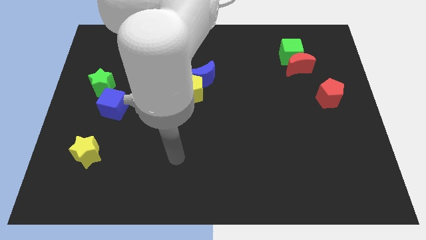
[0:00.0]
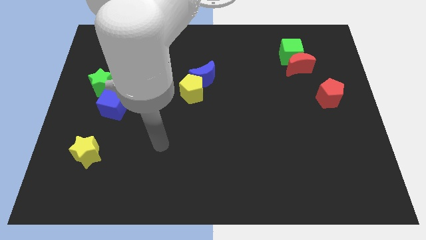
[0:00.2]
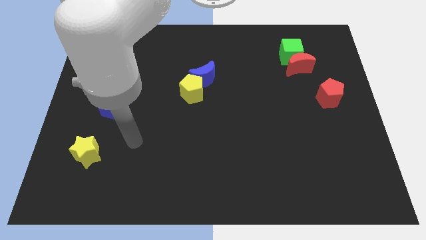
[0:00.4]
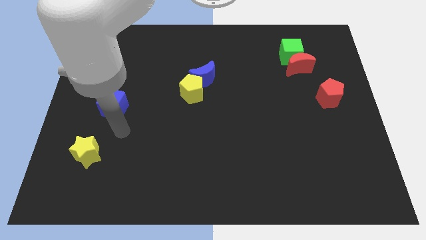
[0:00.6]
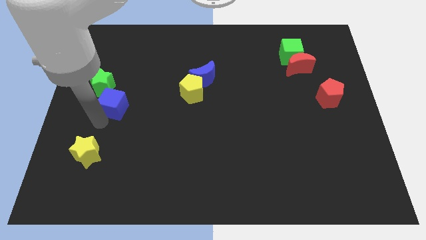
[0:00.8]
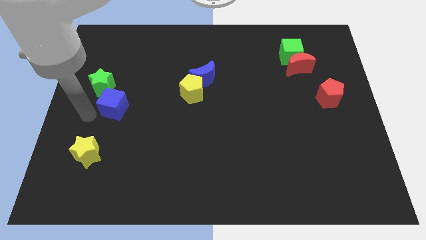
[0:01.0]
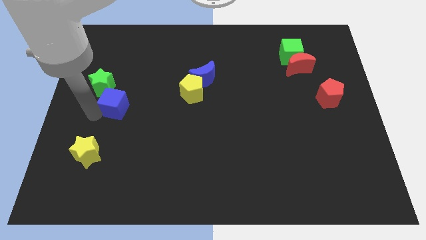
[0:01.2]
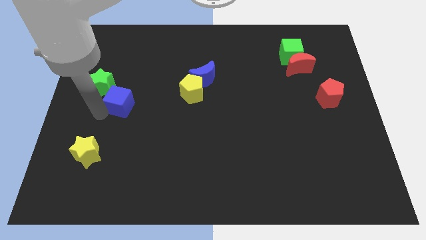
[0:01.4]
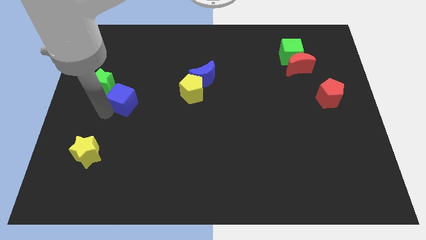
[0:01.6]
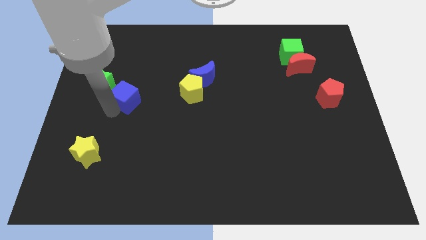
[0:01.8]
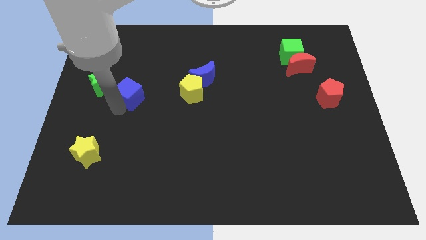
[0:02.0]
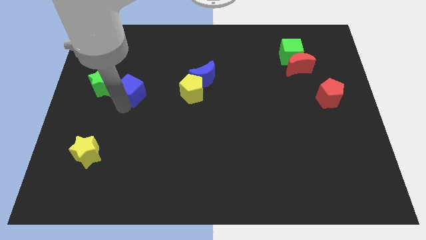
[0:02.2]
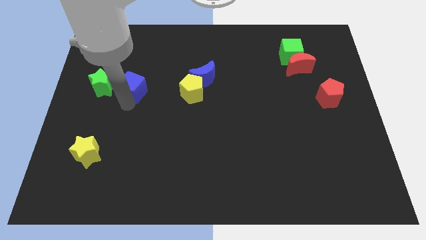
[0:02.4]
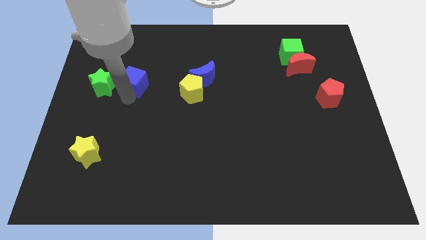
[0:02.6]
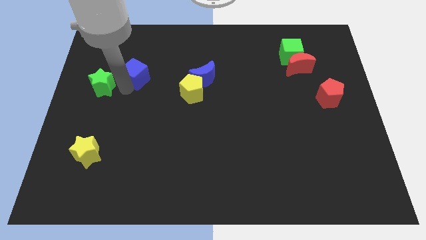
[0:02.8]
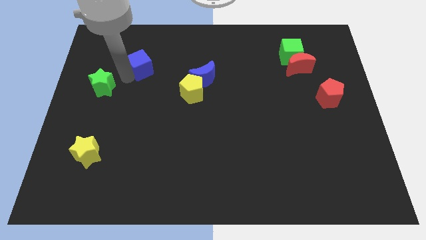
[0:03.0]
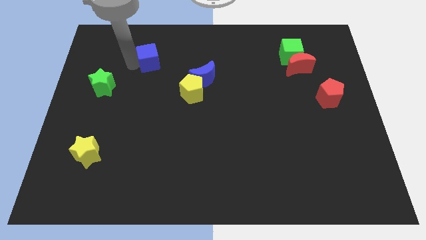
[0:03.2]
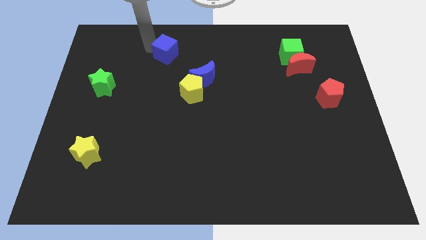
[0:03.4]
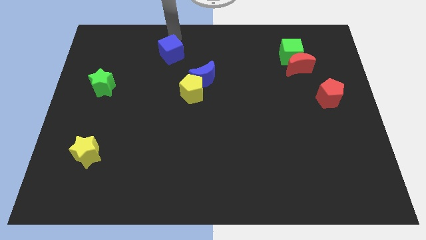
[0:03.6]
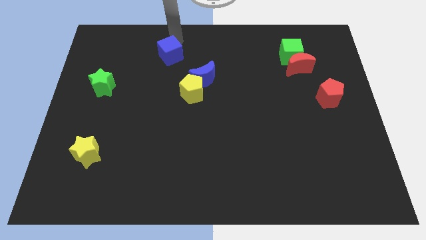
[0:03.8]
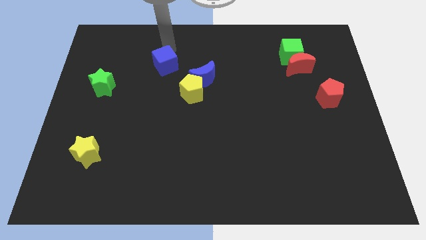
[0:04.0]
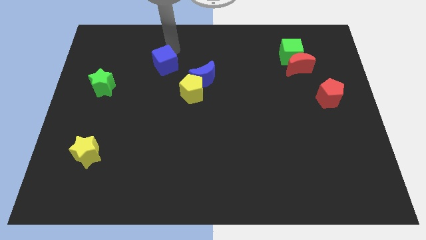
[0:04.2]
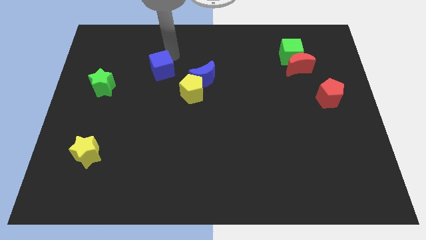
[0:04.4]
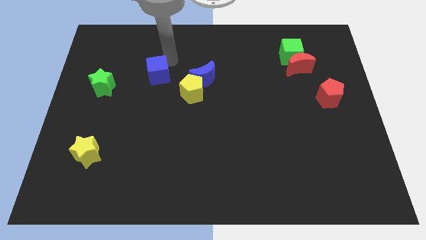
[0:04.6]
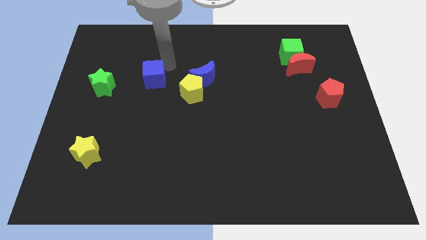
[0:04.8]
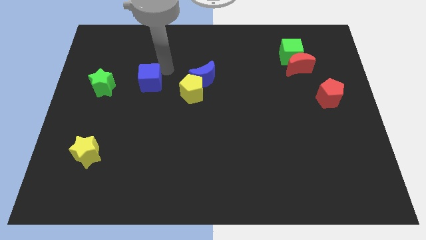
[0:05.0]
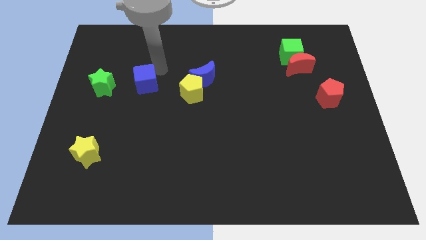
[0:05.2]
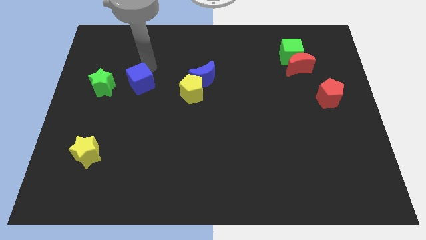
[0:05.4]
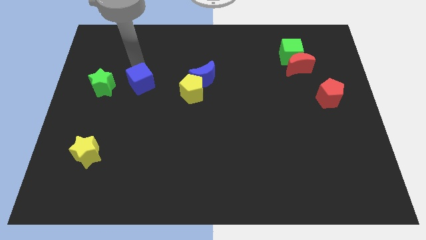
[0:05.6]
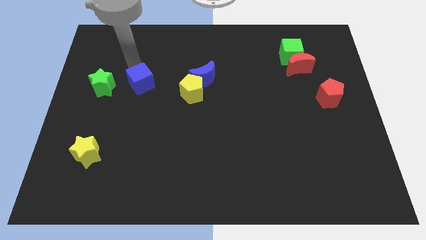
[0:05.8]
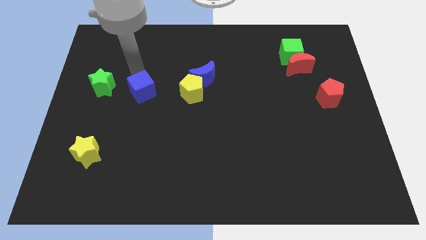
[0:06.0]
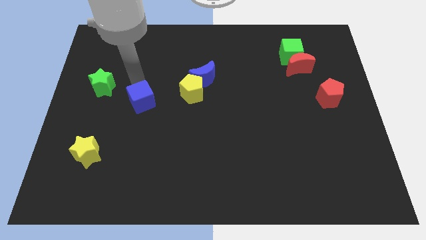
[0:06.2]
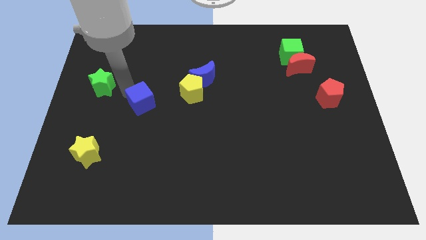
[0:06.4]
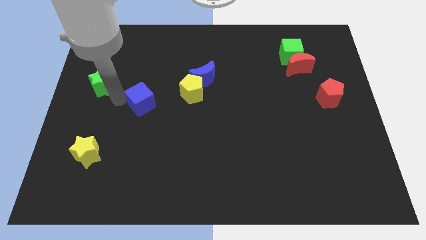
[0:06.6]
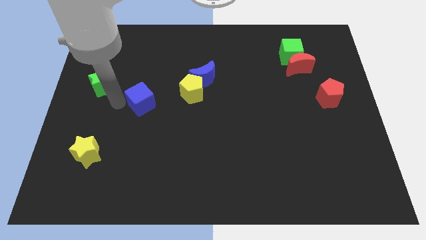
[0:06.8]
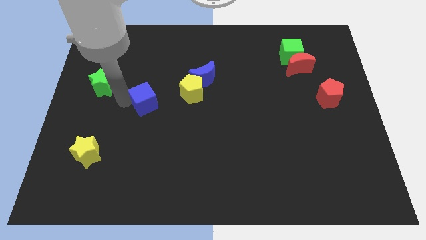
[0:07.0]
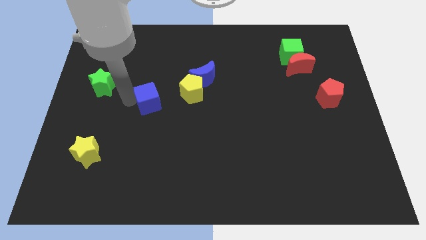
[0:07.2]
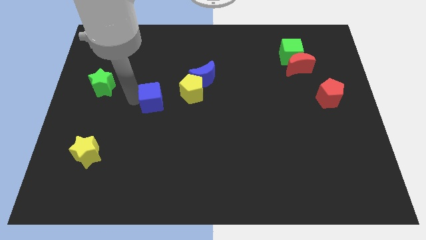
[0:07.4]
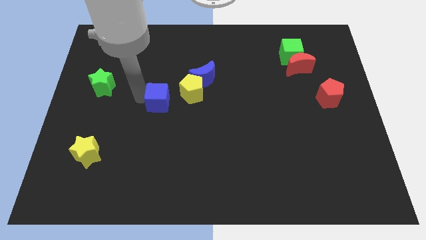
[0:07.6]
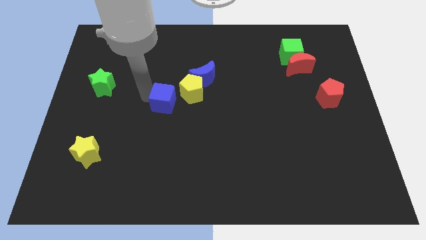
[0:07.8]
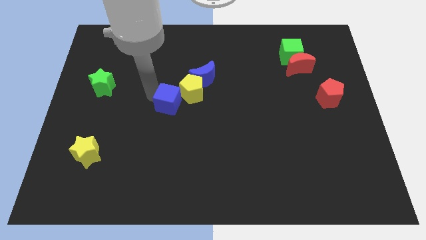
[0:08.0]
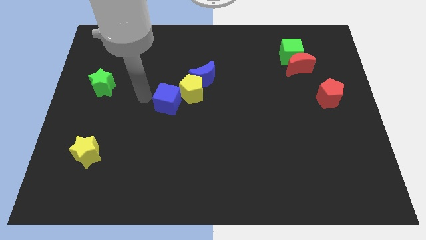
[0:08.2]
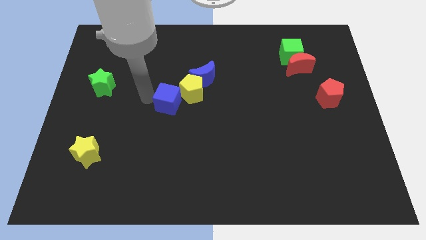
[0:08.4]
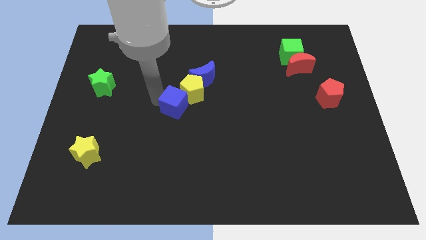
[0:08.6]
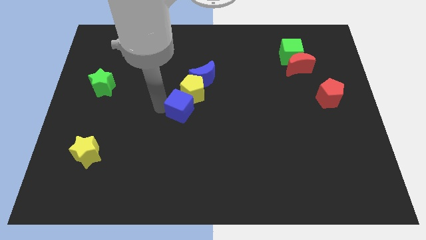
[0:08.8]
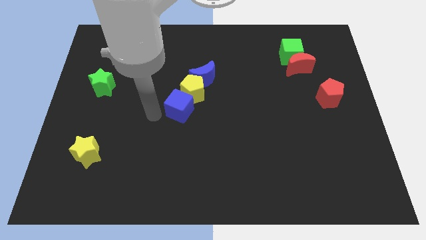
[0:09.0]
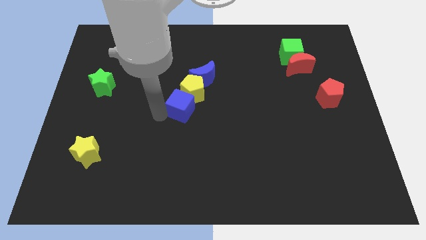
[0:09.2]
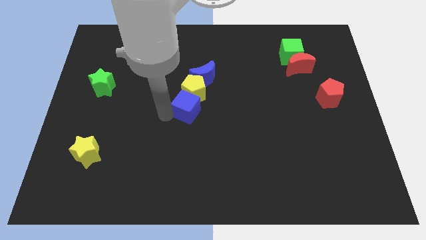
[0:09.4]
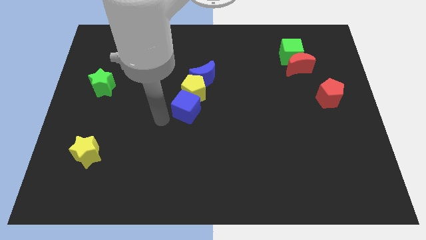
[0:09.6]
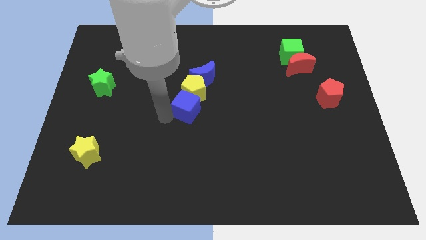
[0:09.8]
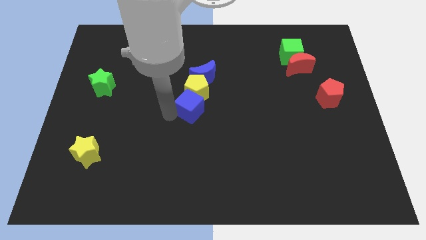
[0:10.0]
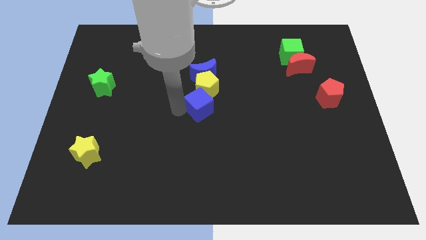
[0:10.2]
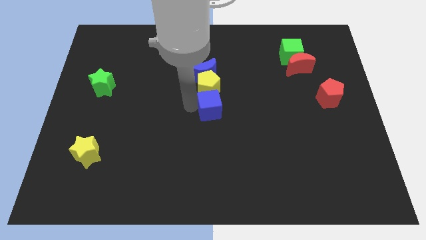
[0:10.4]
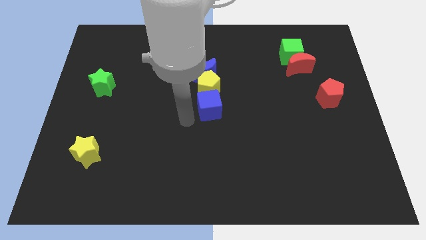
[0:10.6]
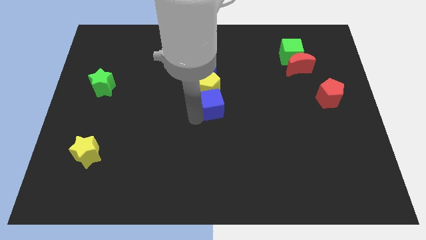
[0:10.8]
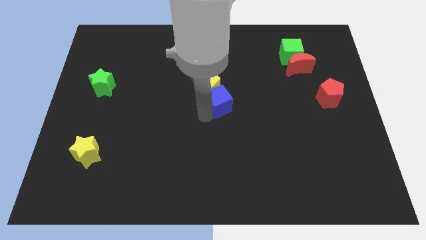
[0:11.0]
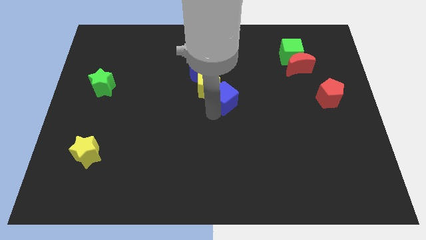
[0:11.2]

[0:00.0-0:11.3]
move the blue cube right of the yellow pentagon

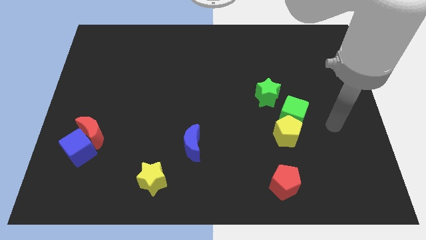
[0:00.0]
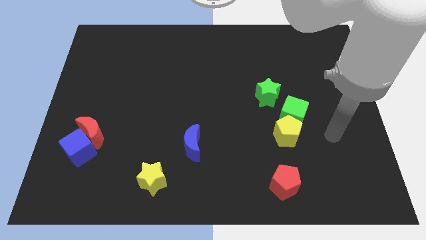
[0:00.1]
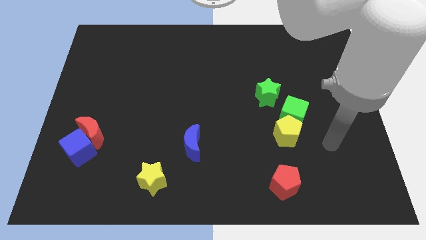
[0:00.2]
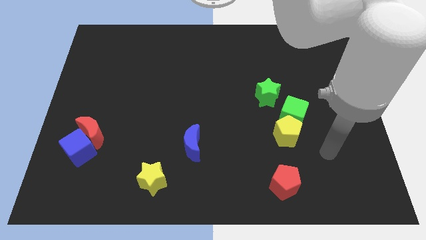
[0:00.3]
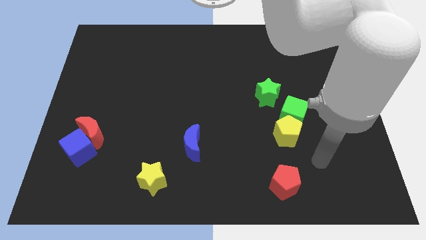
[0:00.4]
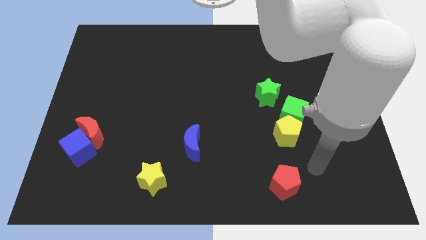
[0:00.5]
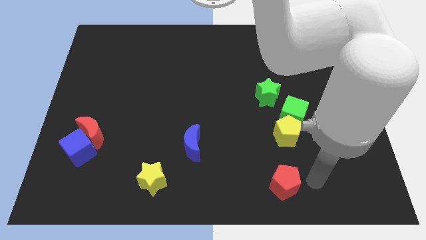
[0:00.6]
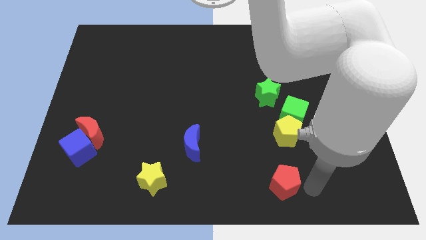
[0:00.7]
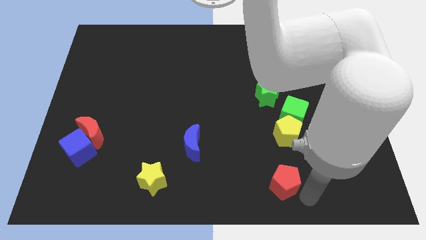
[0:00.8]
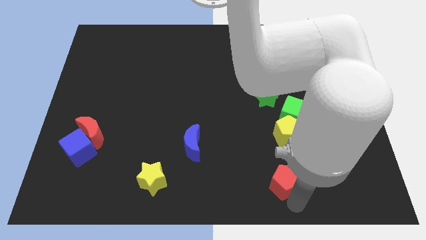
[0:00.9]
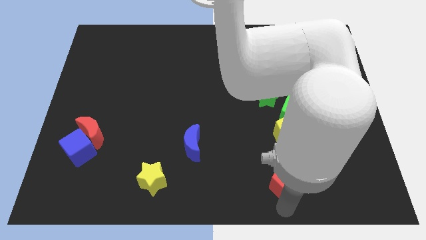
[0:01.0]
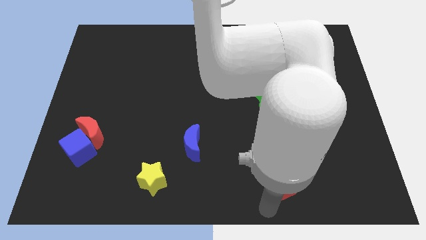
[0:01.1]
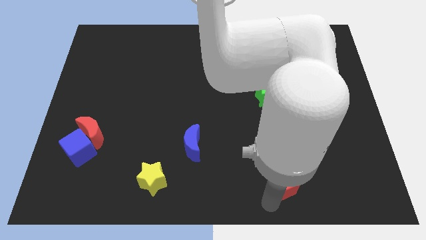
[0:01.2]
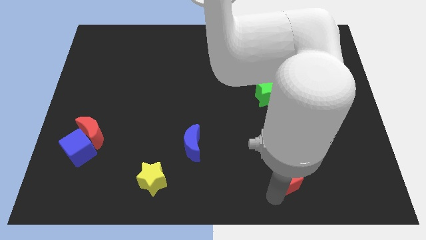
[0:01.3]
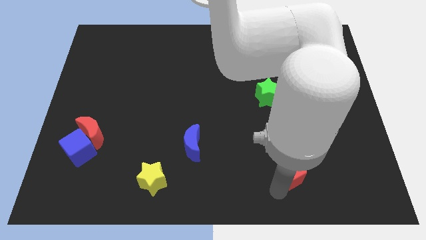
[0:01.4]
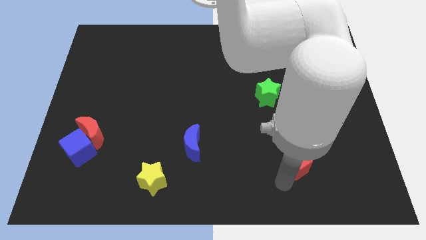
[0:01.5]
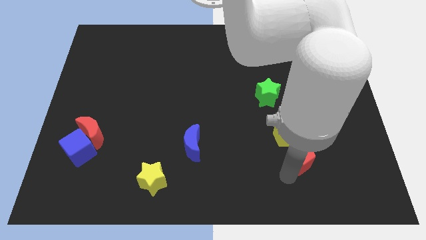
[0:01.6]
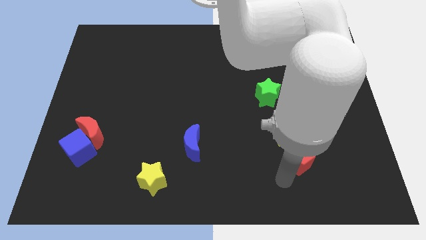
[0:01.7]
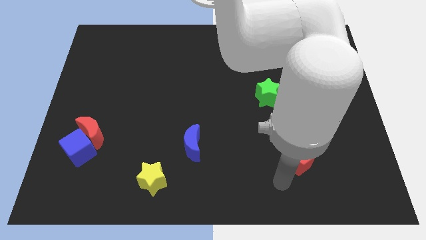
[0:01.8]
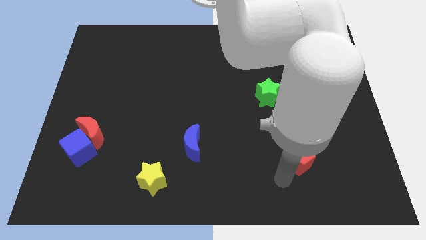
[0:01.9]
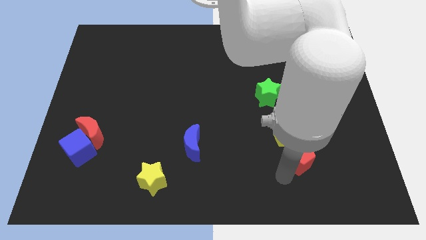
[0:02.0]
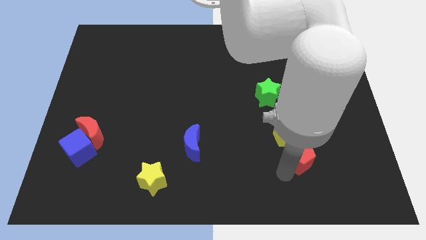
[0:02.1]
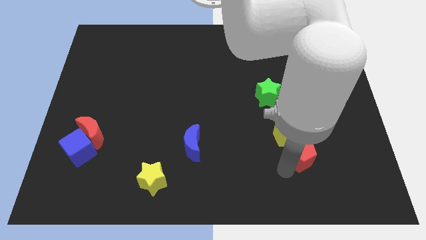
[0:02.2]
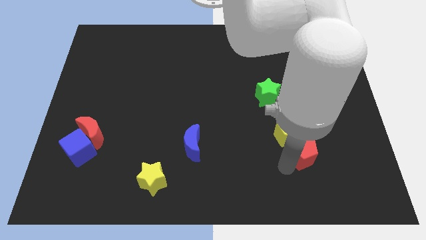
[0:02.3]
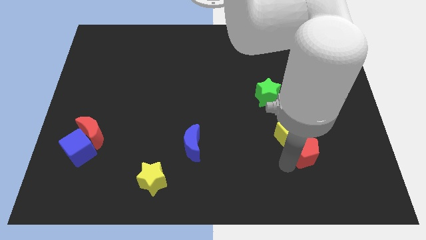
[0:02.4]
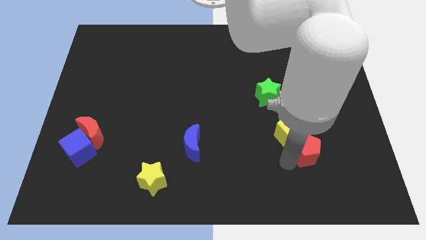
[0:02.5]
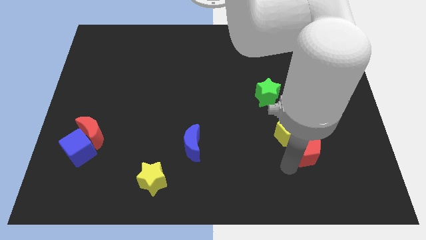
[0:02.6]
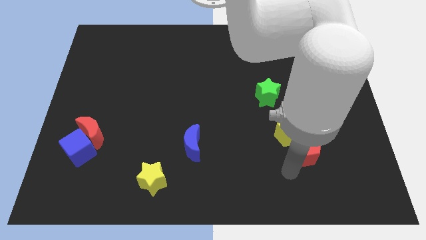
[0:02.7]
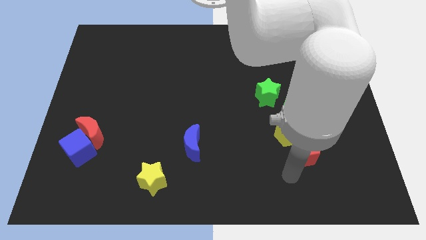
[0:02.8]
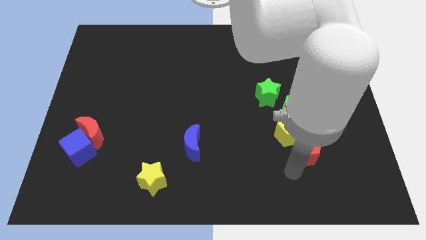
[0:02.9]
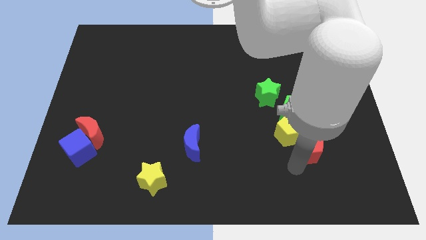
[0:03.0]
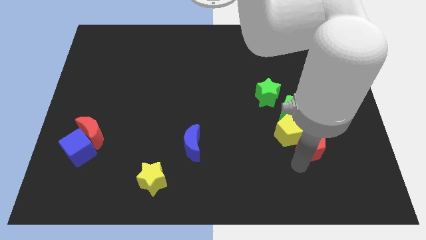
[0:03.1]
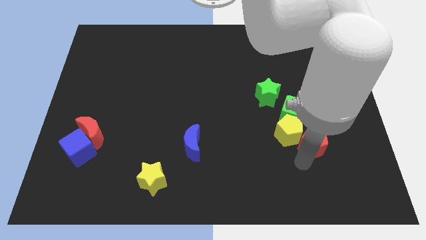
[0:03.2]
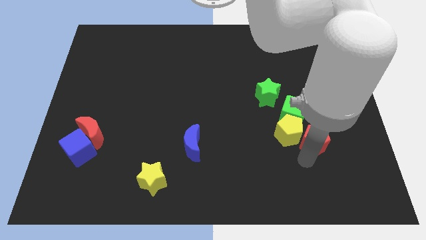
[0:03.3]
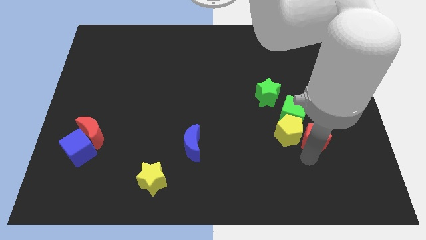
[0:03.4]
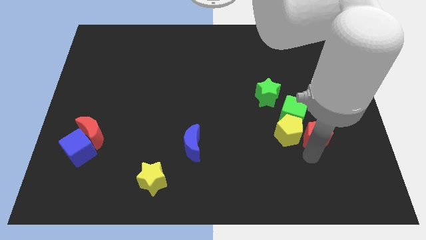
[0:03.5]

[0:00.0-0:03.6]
push the red pentagon to the top right of the yellow pentagon
